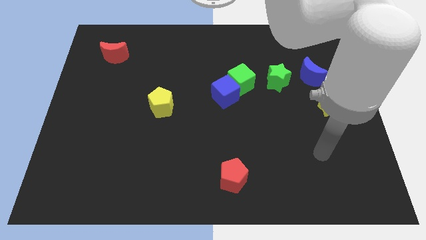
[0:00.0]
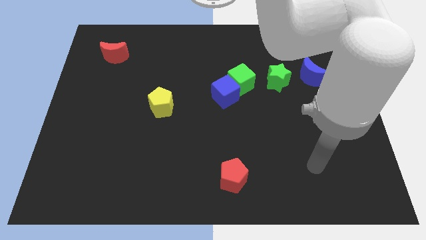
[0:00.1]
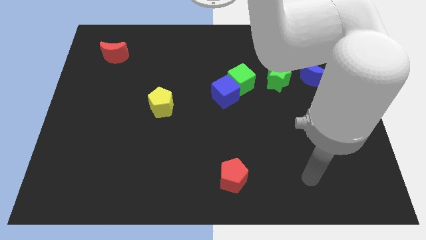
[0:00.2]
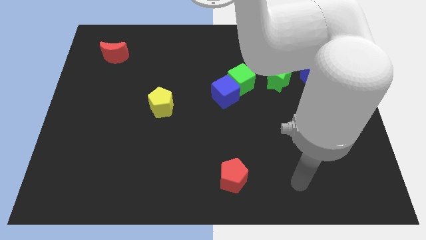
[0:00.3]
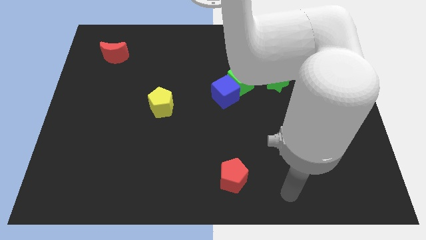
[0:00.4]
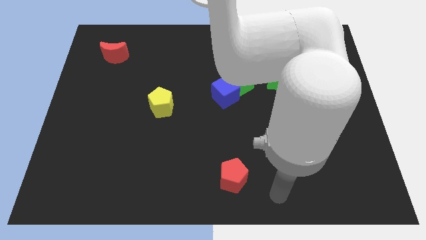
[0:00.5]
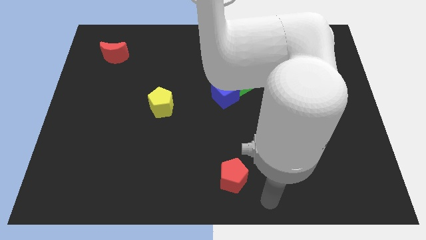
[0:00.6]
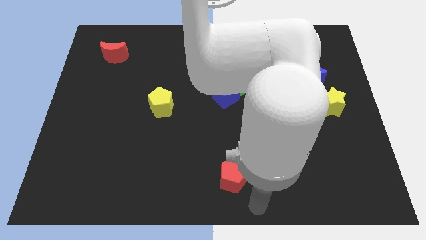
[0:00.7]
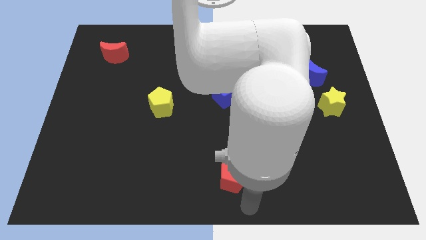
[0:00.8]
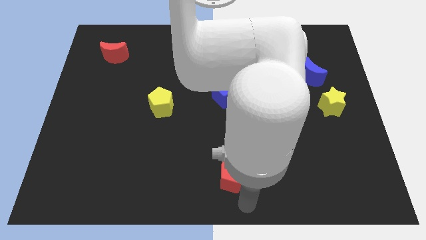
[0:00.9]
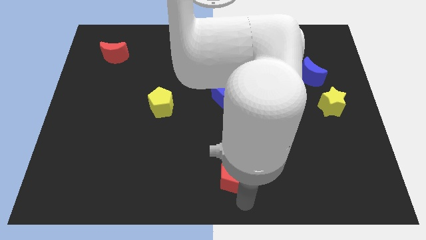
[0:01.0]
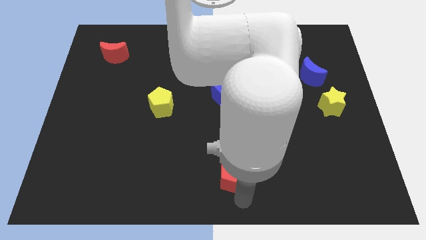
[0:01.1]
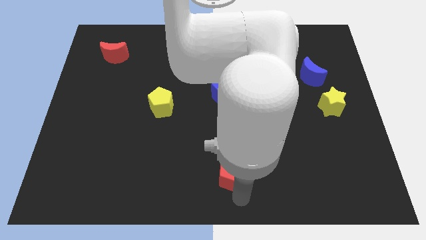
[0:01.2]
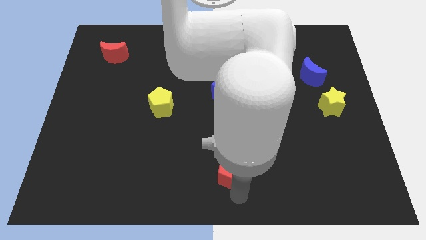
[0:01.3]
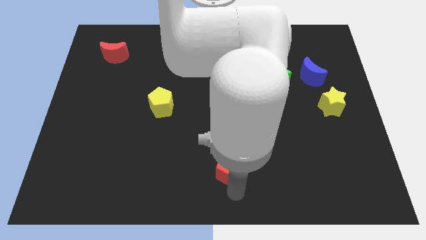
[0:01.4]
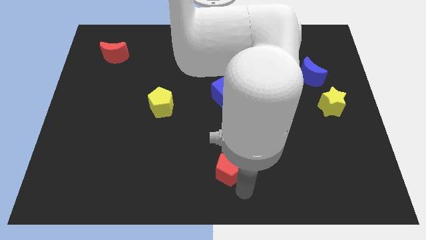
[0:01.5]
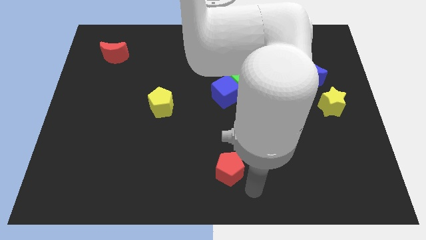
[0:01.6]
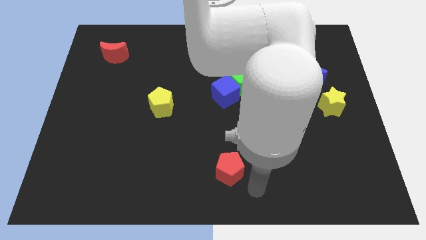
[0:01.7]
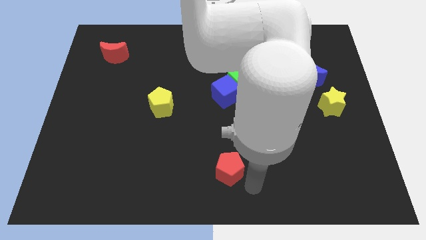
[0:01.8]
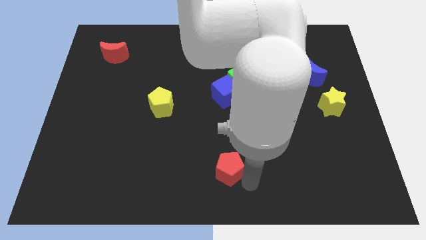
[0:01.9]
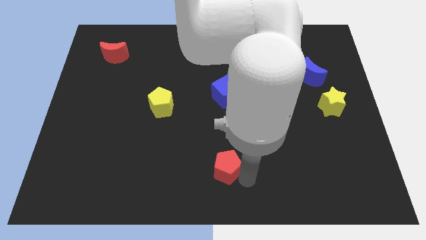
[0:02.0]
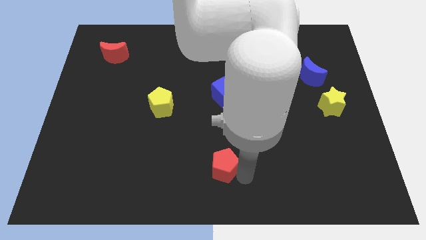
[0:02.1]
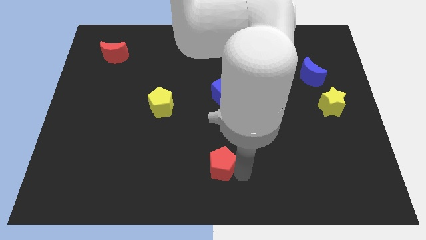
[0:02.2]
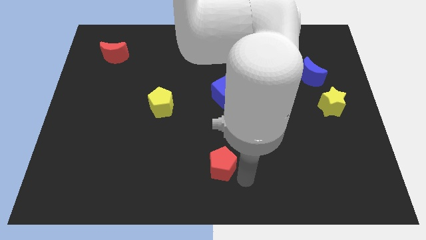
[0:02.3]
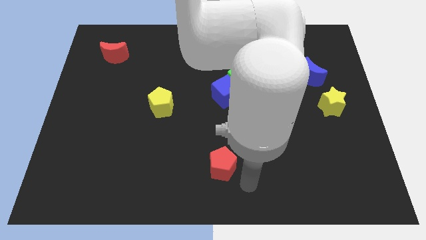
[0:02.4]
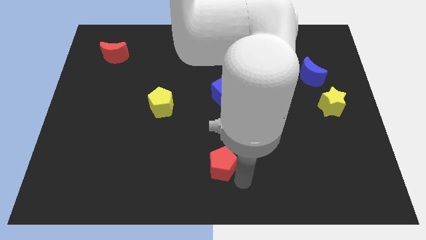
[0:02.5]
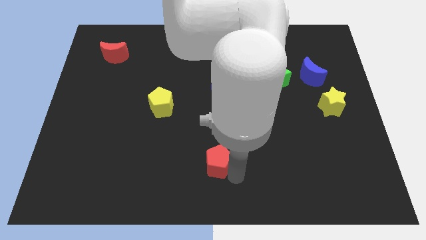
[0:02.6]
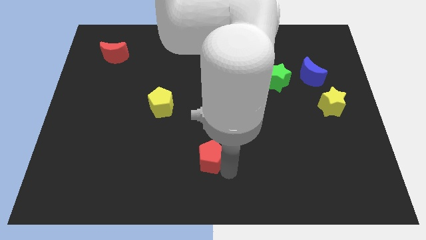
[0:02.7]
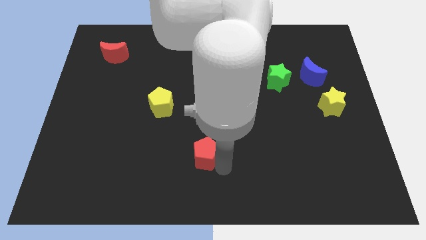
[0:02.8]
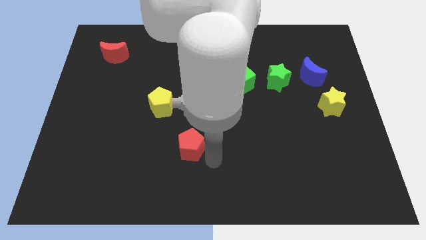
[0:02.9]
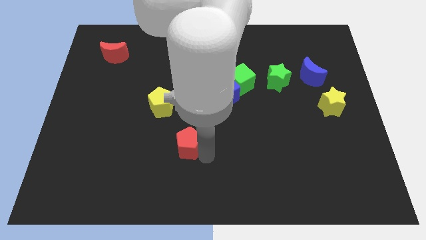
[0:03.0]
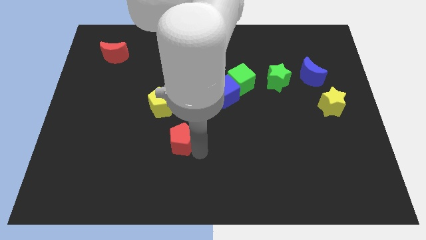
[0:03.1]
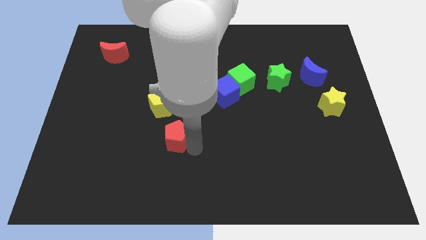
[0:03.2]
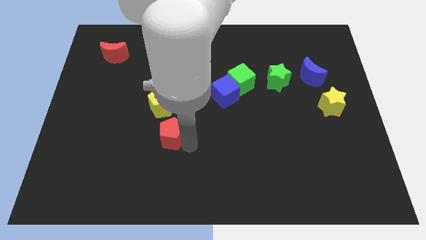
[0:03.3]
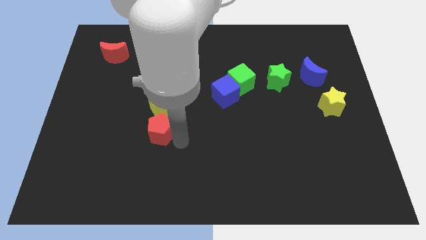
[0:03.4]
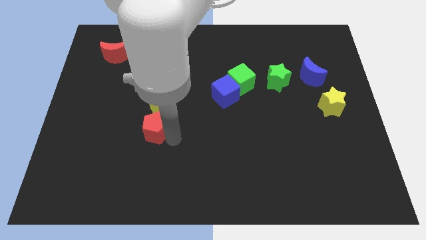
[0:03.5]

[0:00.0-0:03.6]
move the red pentagon upwards and to the left

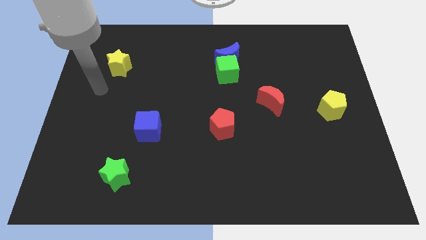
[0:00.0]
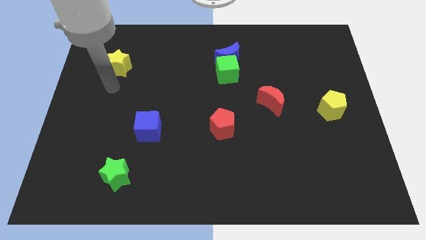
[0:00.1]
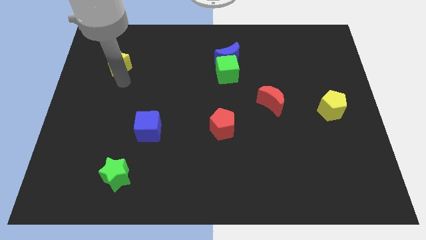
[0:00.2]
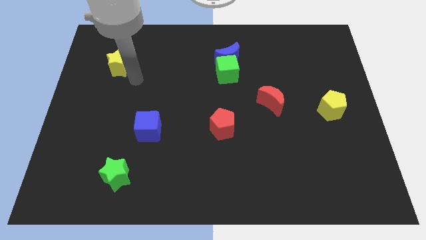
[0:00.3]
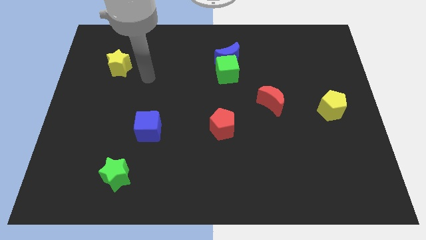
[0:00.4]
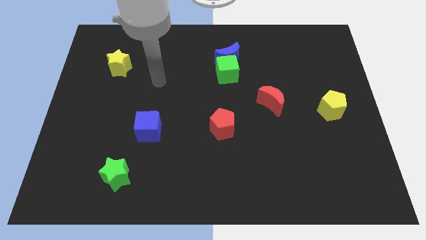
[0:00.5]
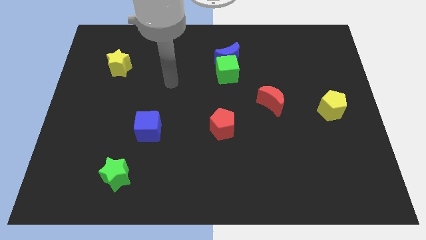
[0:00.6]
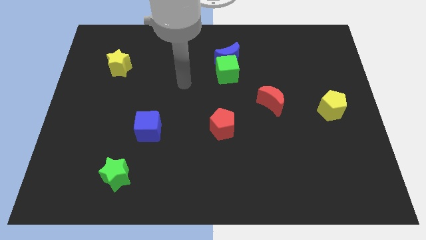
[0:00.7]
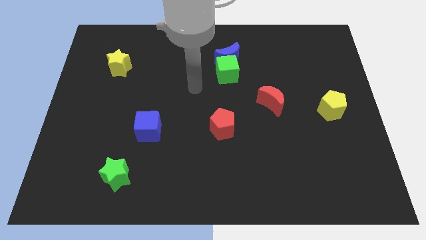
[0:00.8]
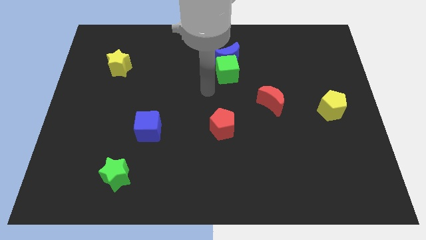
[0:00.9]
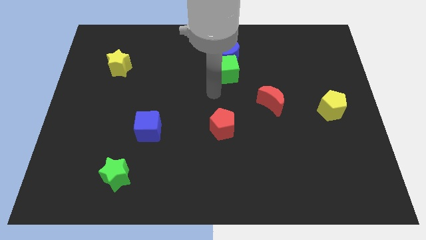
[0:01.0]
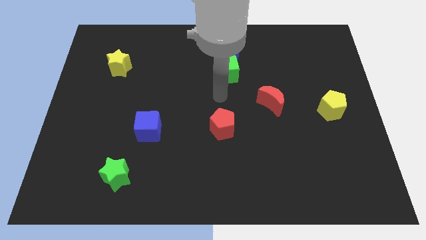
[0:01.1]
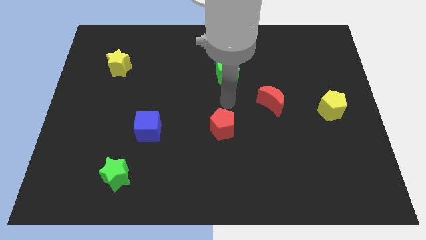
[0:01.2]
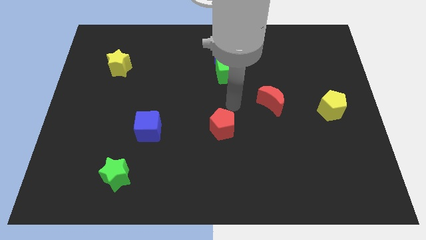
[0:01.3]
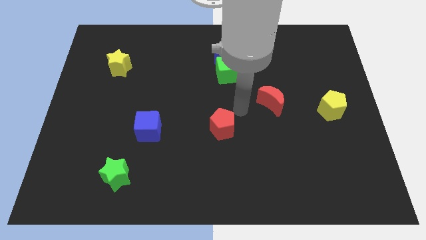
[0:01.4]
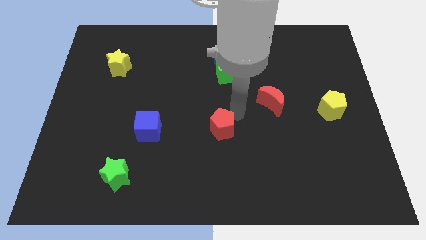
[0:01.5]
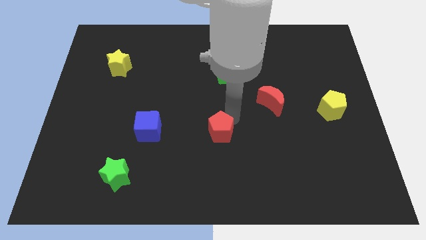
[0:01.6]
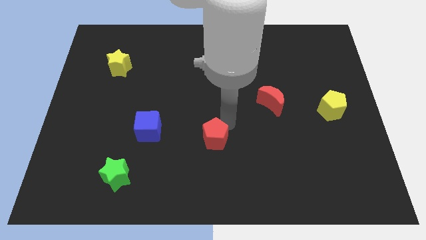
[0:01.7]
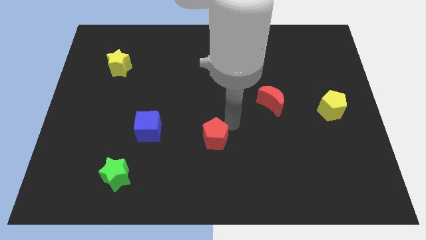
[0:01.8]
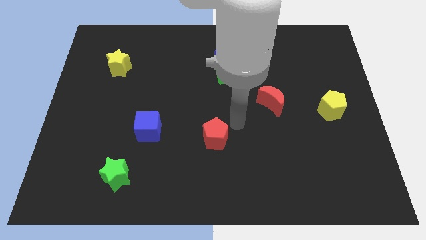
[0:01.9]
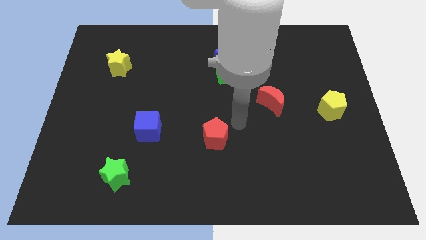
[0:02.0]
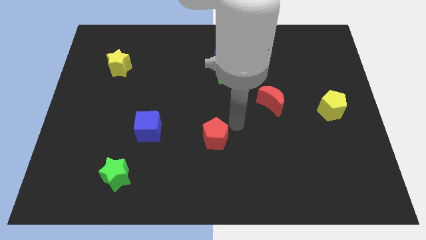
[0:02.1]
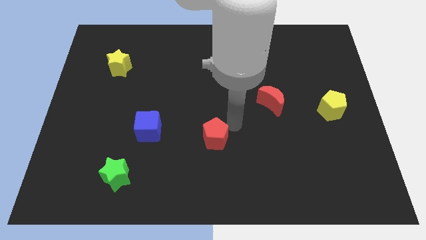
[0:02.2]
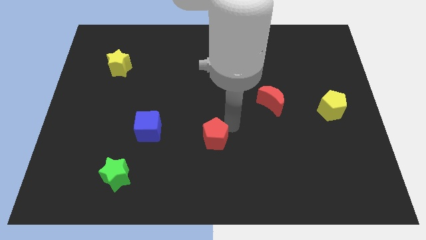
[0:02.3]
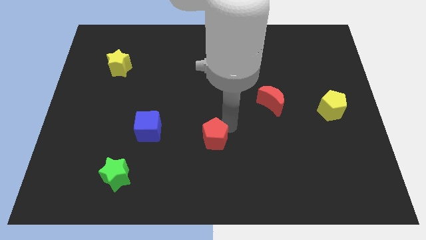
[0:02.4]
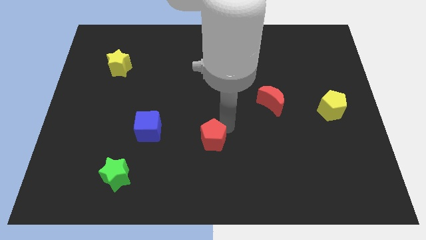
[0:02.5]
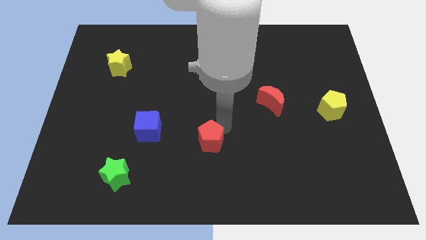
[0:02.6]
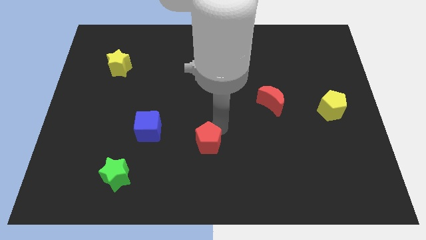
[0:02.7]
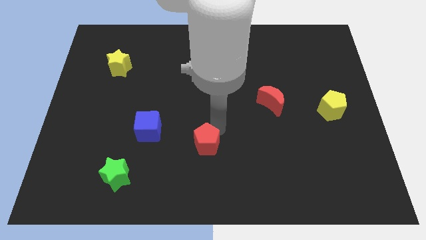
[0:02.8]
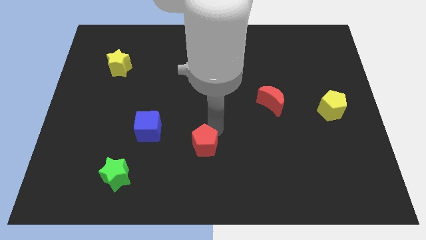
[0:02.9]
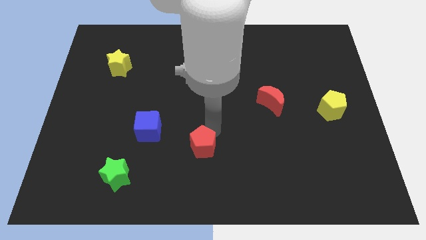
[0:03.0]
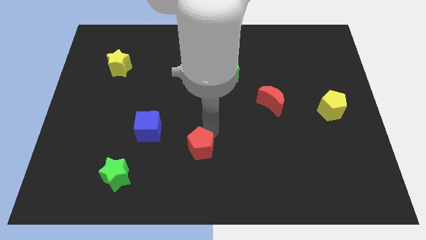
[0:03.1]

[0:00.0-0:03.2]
slightly move the red pentagon downwards and to the left diagonally

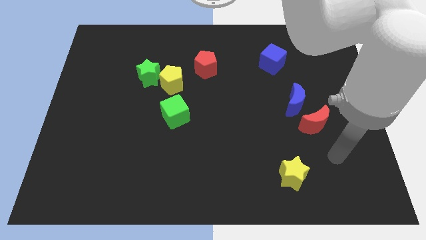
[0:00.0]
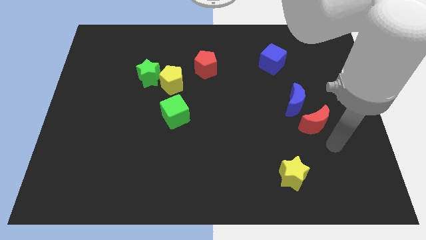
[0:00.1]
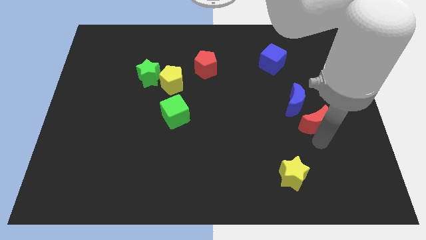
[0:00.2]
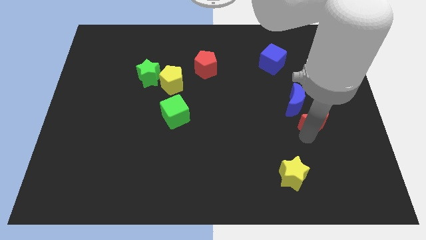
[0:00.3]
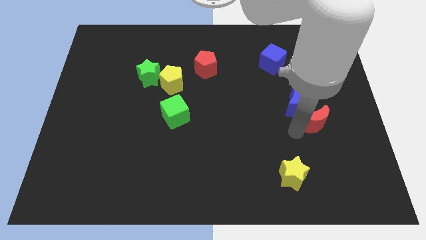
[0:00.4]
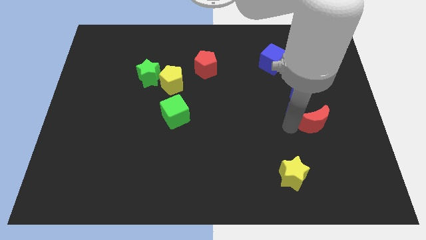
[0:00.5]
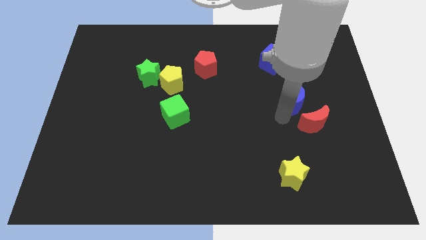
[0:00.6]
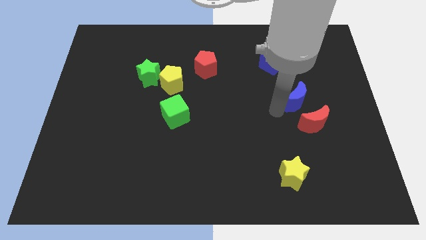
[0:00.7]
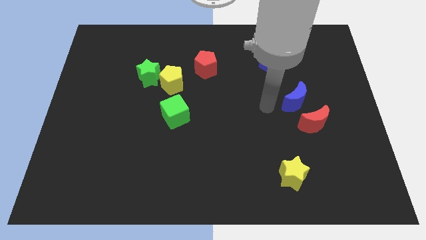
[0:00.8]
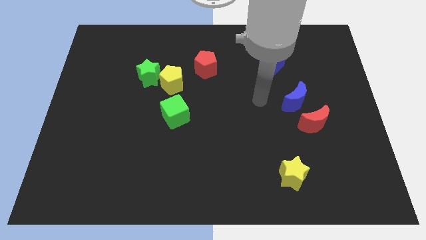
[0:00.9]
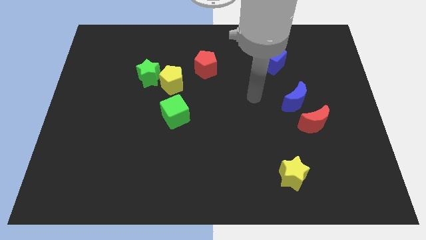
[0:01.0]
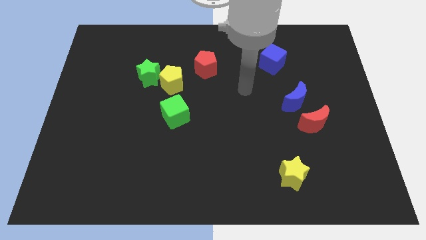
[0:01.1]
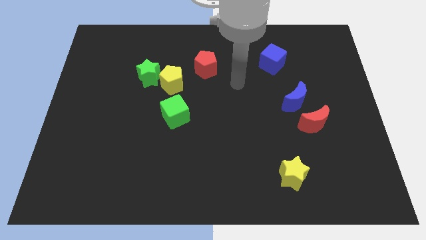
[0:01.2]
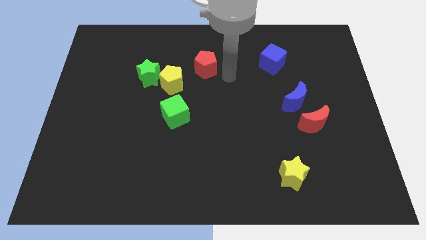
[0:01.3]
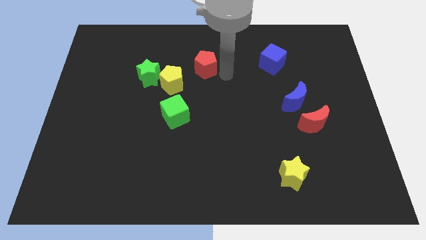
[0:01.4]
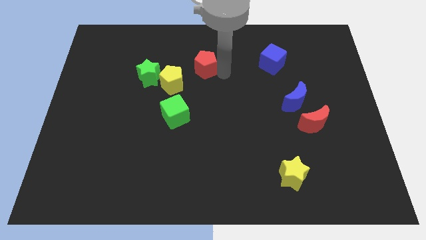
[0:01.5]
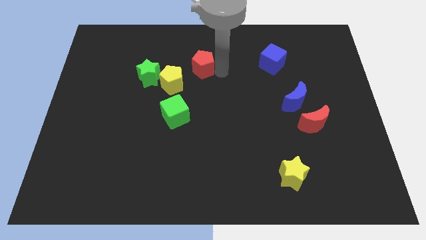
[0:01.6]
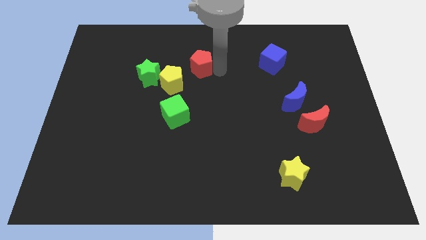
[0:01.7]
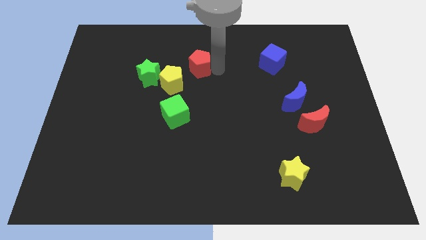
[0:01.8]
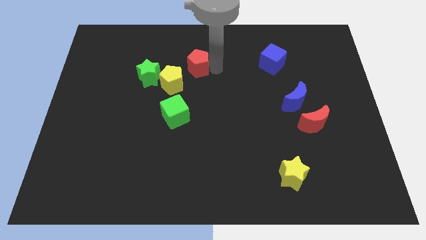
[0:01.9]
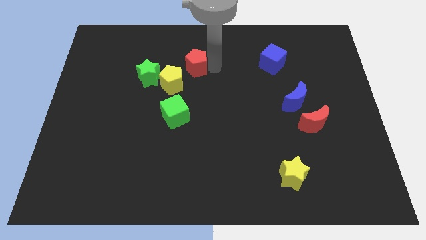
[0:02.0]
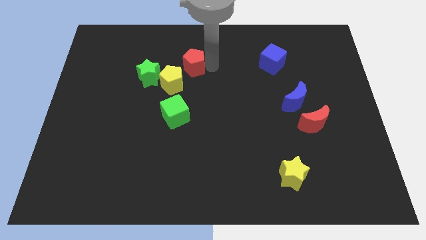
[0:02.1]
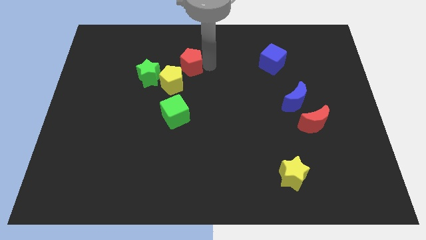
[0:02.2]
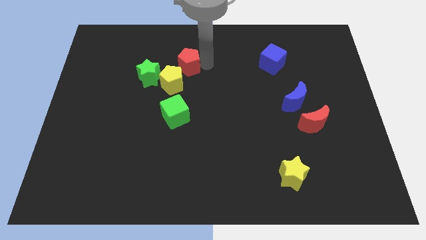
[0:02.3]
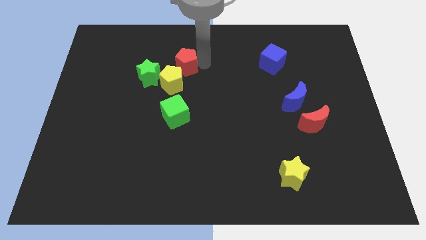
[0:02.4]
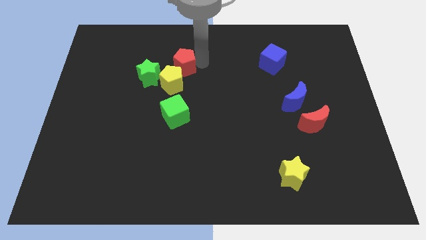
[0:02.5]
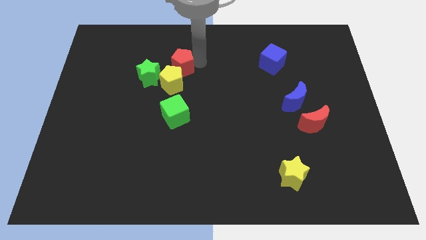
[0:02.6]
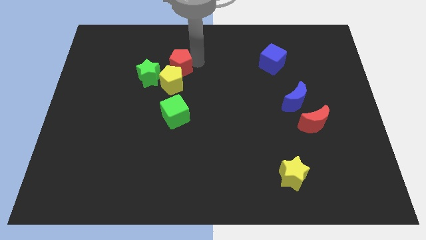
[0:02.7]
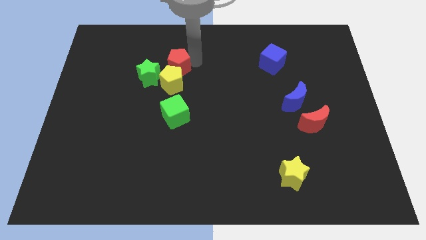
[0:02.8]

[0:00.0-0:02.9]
slightly move the red pentagon to the left
